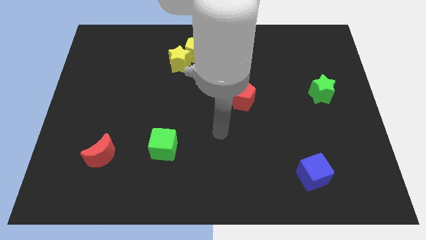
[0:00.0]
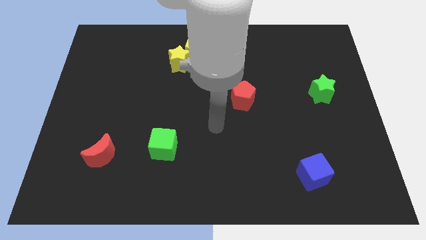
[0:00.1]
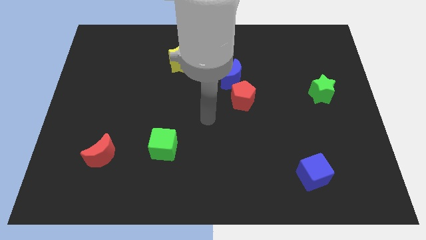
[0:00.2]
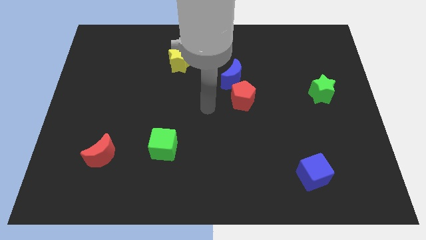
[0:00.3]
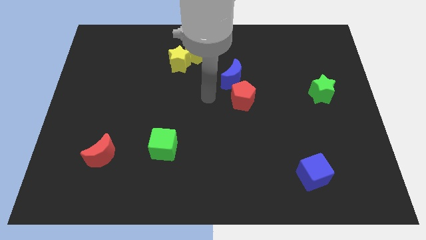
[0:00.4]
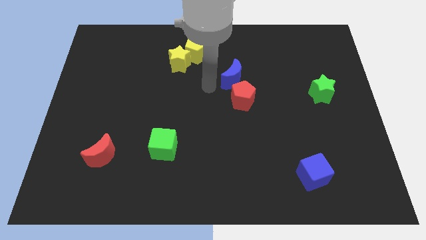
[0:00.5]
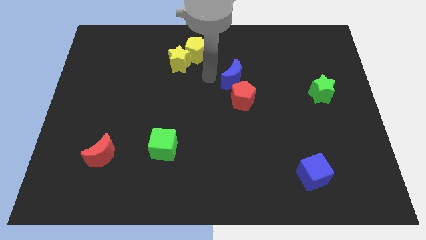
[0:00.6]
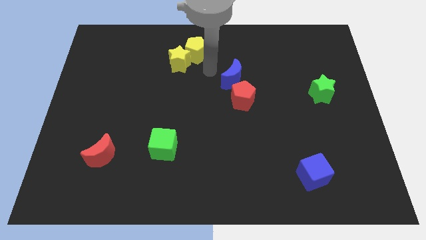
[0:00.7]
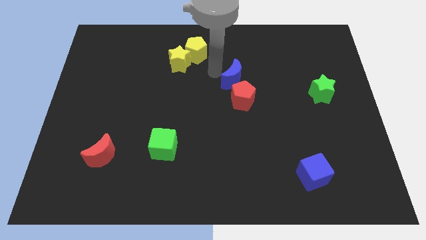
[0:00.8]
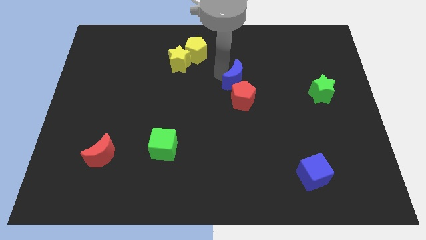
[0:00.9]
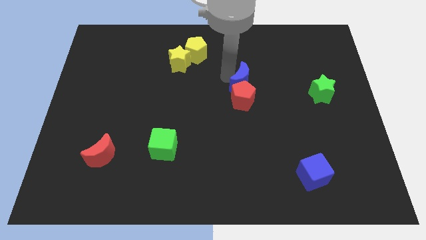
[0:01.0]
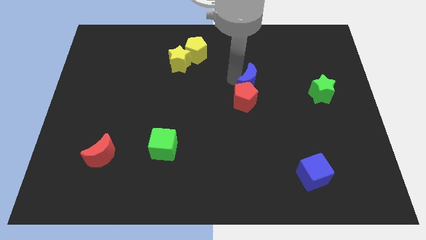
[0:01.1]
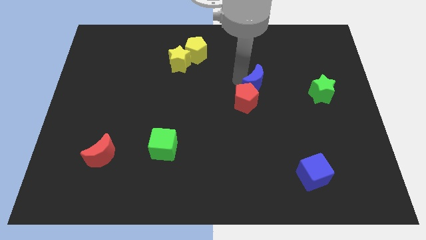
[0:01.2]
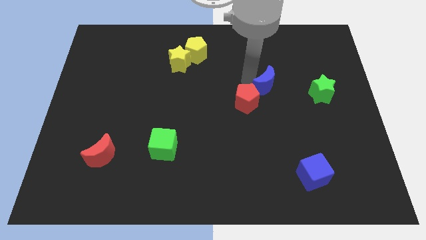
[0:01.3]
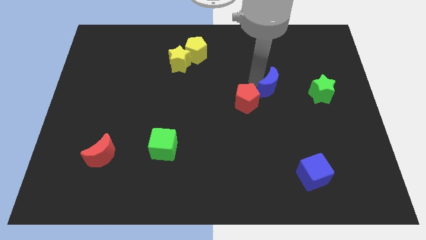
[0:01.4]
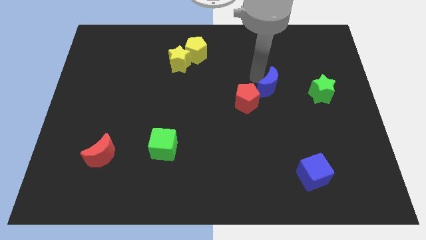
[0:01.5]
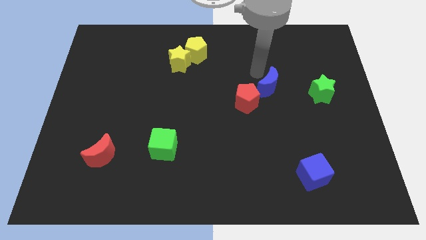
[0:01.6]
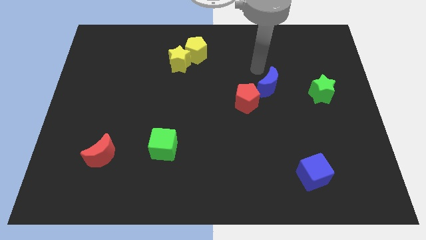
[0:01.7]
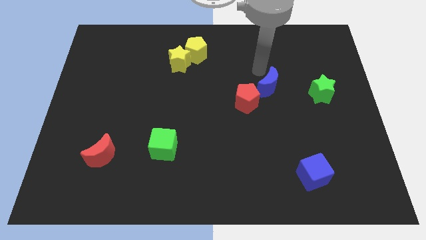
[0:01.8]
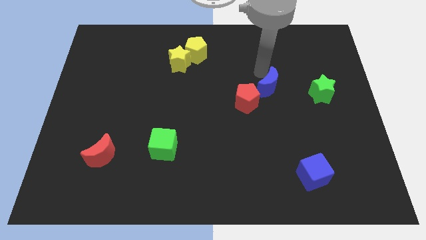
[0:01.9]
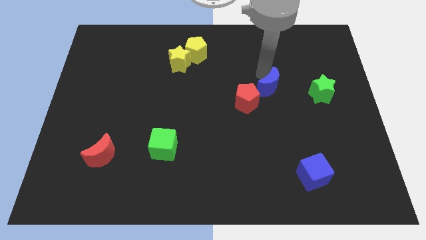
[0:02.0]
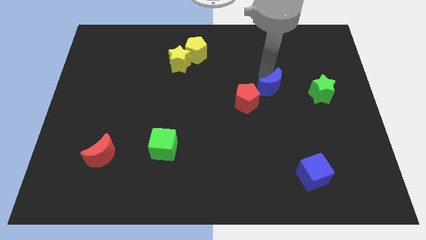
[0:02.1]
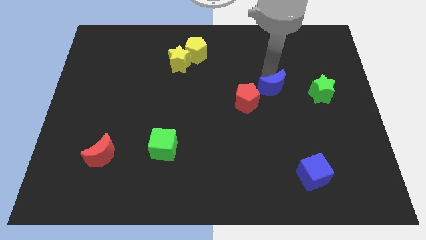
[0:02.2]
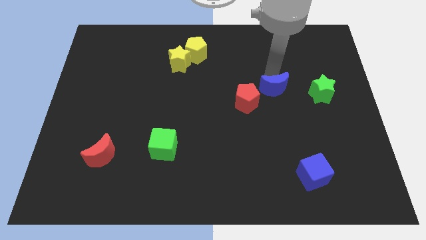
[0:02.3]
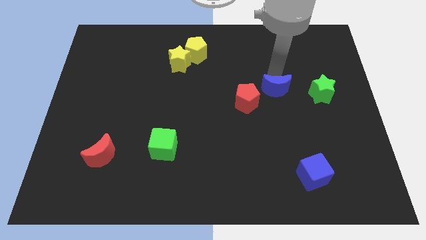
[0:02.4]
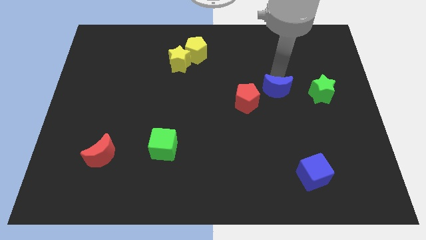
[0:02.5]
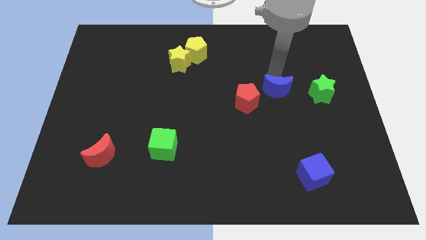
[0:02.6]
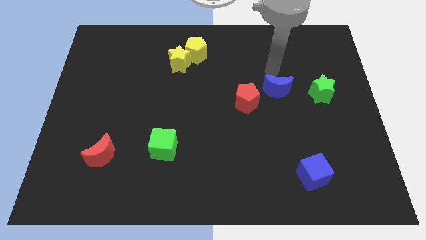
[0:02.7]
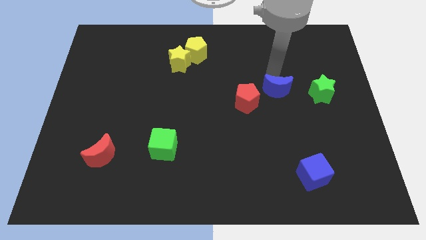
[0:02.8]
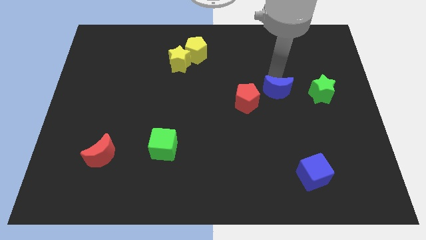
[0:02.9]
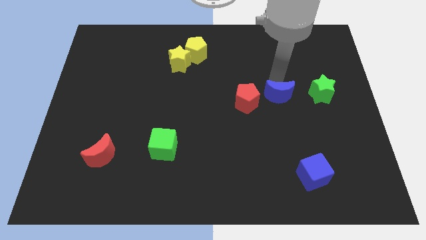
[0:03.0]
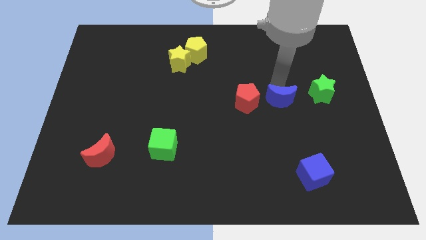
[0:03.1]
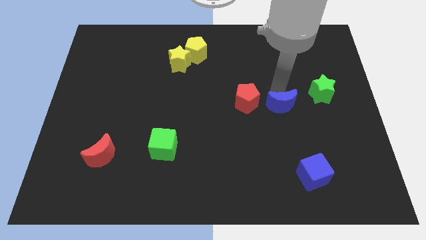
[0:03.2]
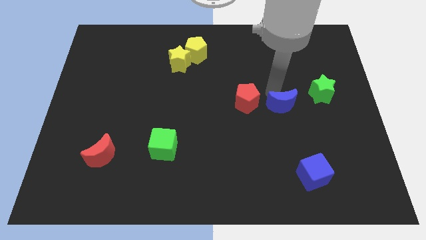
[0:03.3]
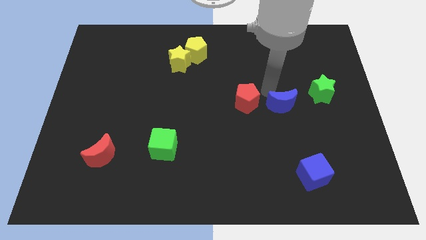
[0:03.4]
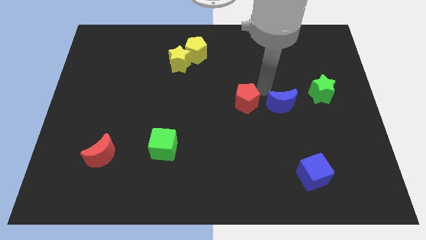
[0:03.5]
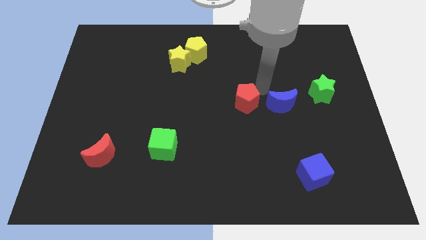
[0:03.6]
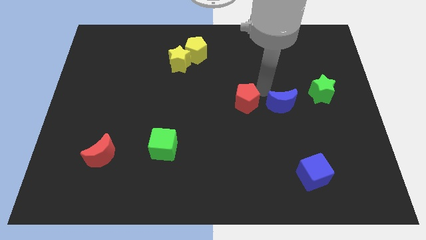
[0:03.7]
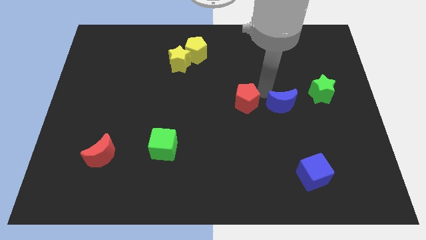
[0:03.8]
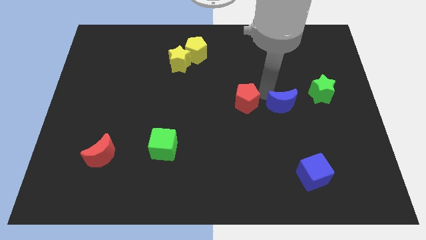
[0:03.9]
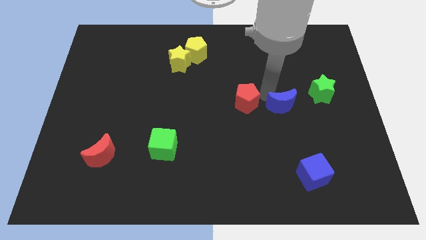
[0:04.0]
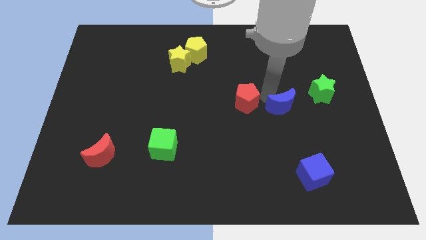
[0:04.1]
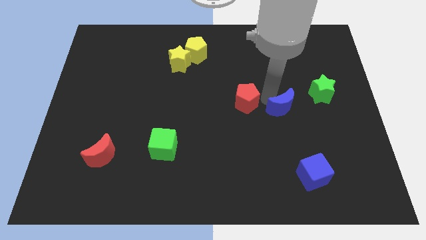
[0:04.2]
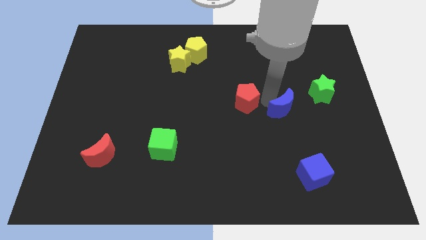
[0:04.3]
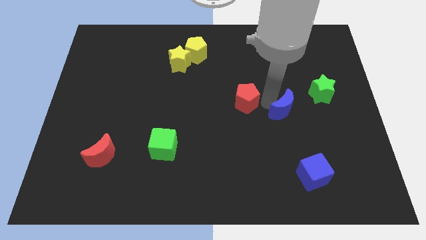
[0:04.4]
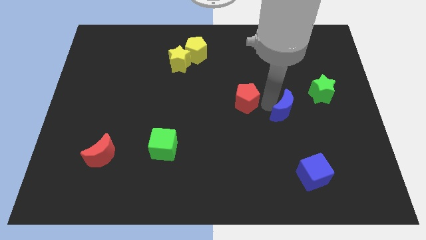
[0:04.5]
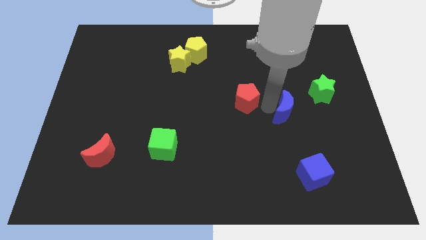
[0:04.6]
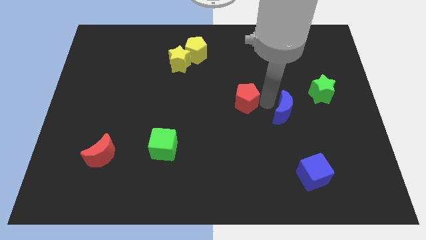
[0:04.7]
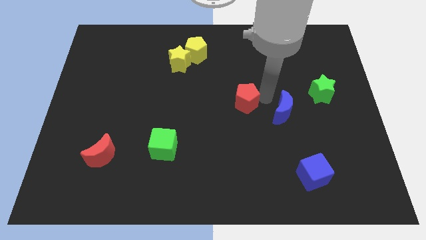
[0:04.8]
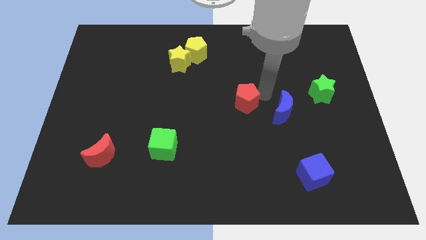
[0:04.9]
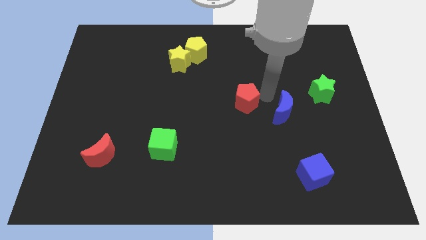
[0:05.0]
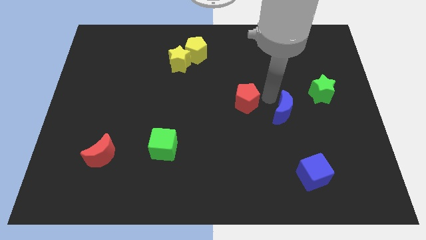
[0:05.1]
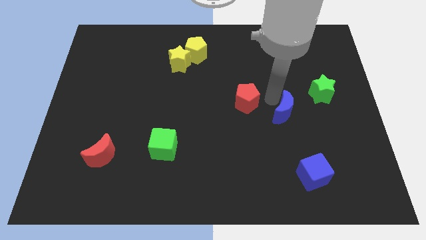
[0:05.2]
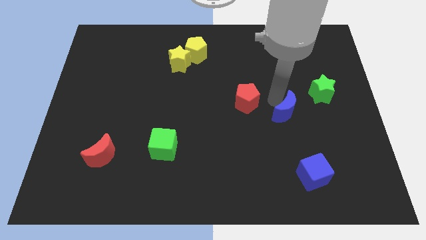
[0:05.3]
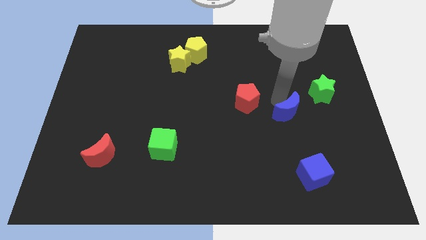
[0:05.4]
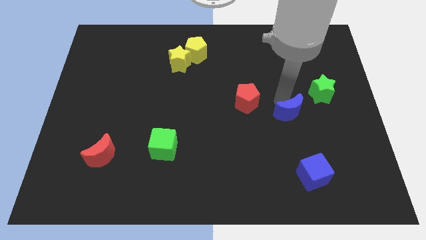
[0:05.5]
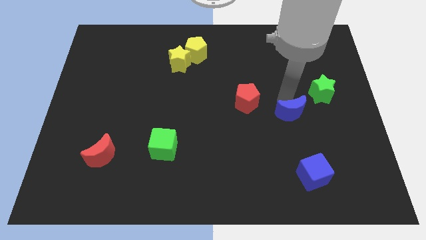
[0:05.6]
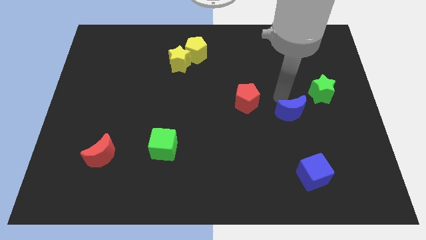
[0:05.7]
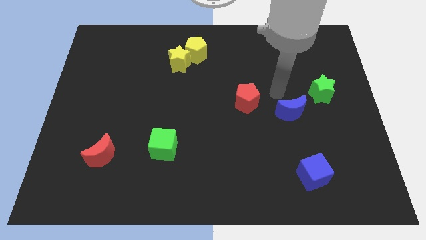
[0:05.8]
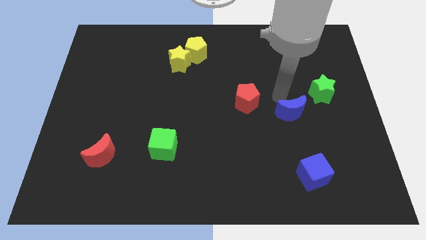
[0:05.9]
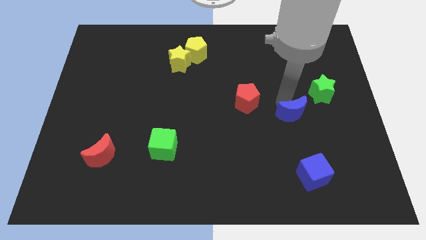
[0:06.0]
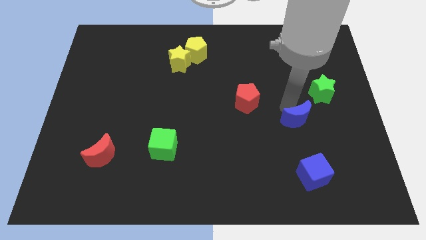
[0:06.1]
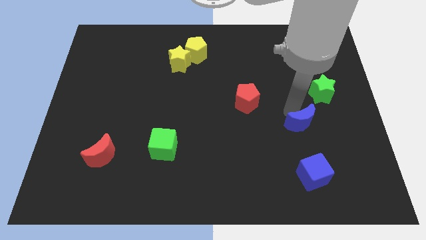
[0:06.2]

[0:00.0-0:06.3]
push the blue moon down and right diagonally

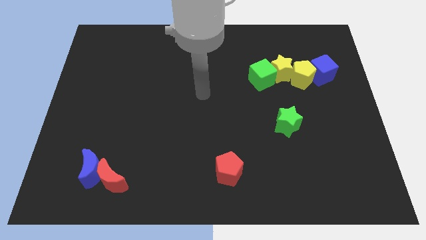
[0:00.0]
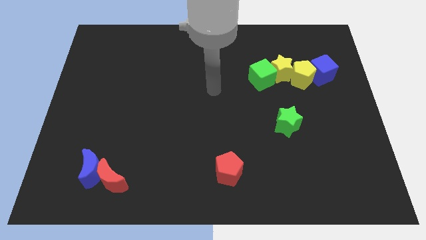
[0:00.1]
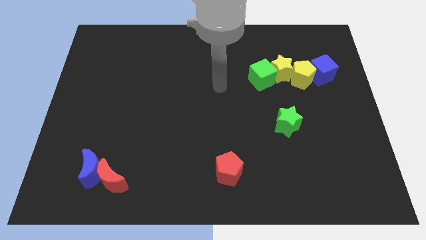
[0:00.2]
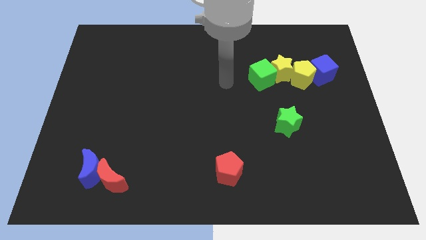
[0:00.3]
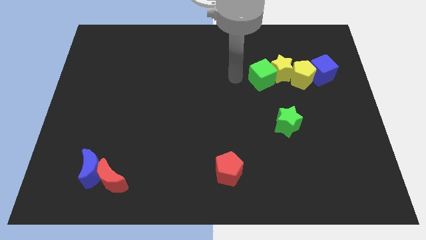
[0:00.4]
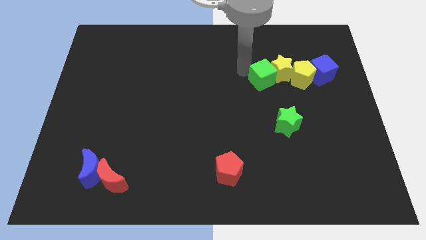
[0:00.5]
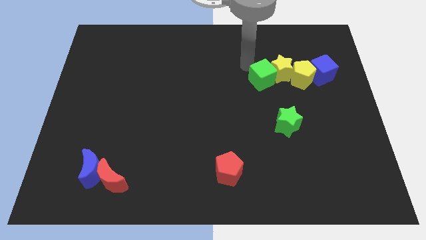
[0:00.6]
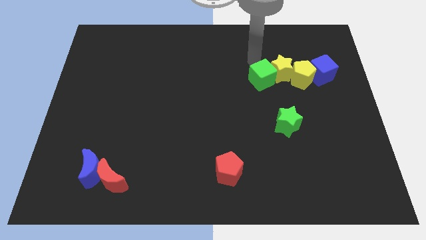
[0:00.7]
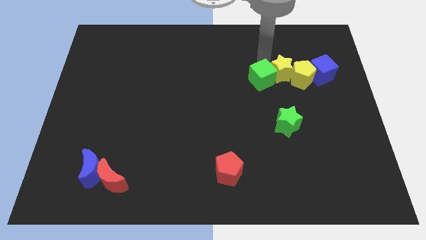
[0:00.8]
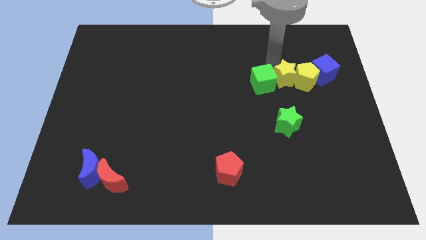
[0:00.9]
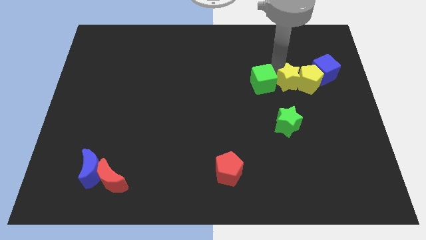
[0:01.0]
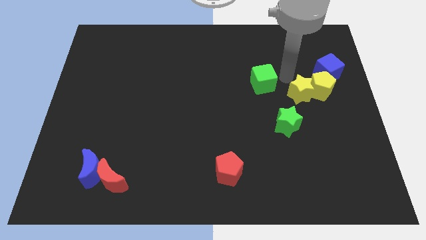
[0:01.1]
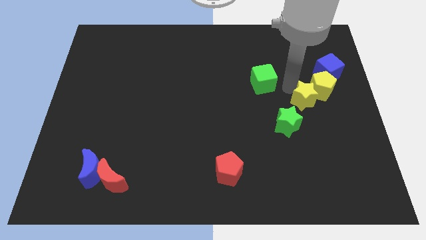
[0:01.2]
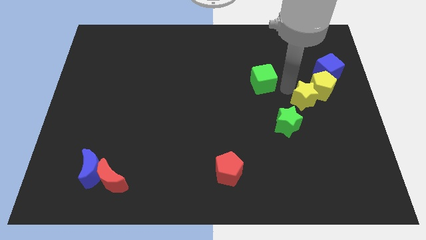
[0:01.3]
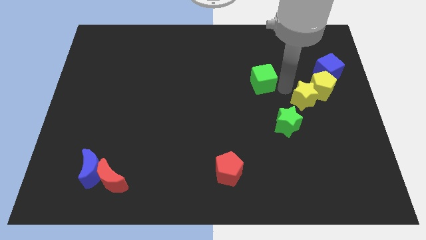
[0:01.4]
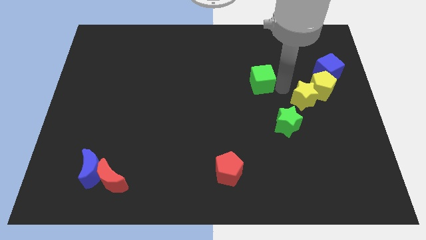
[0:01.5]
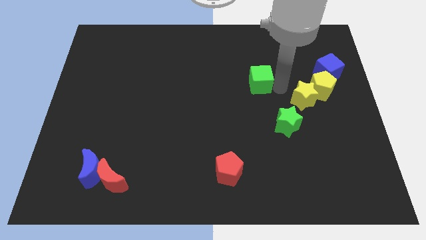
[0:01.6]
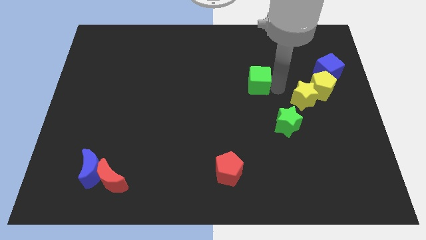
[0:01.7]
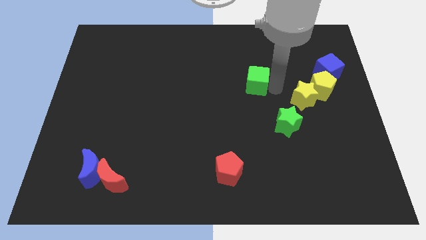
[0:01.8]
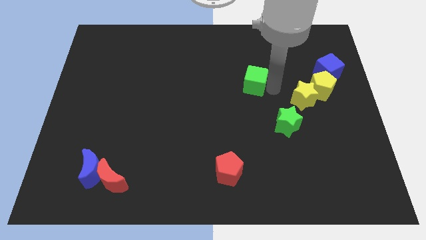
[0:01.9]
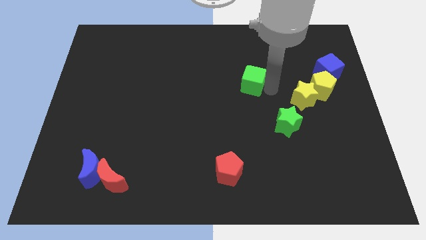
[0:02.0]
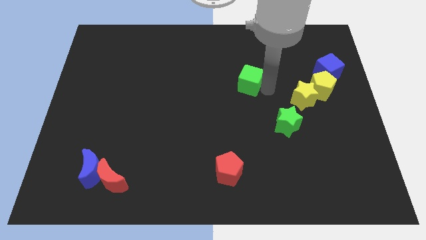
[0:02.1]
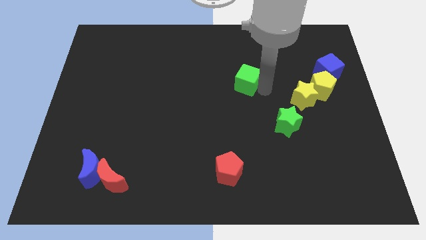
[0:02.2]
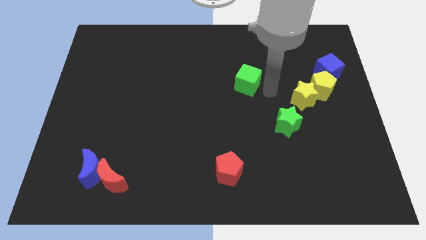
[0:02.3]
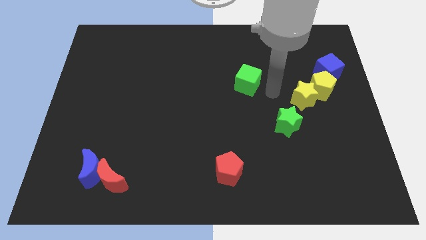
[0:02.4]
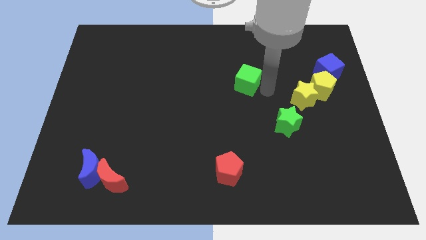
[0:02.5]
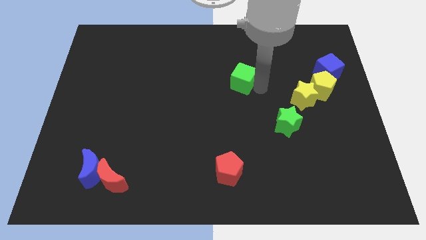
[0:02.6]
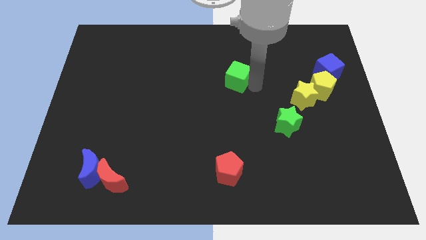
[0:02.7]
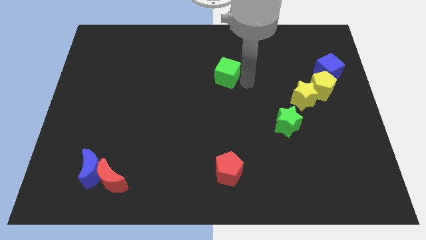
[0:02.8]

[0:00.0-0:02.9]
slightly slide the green cube to the left
